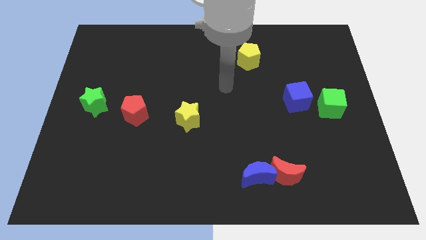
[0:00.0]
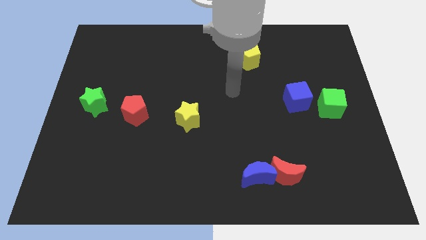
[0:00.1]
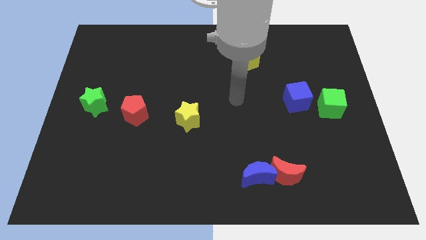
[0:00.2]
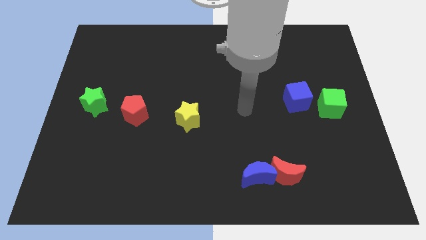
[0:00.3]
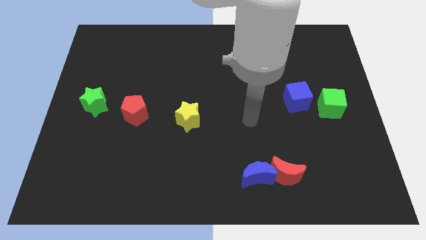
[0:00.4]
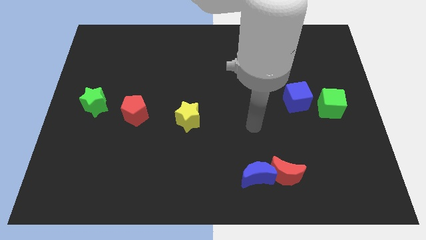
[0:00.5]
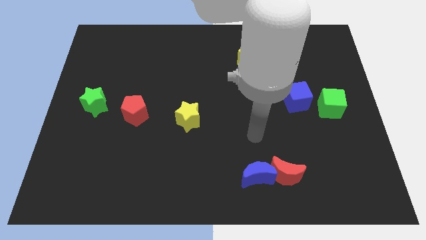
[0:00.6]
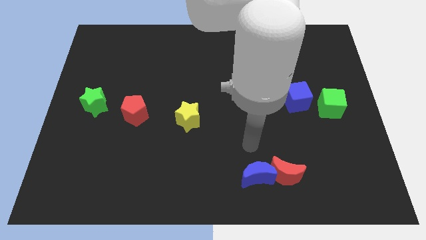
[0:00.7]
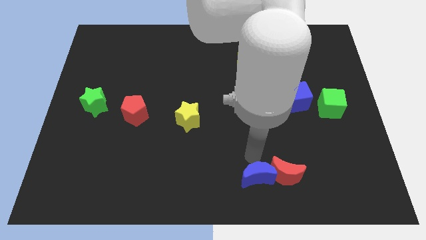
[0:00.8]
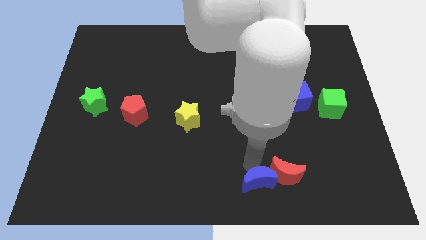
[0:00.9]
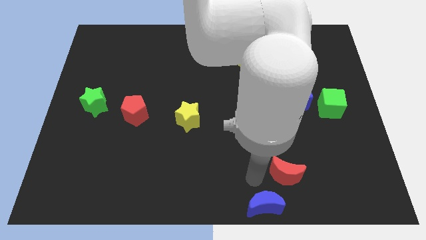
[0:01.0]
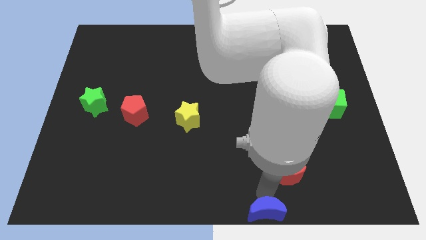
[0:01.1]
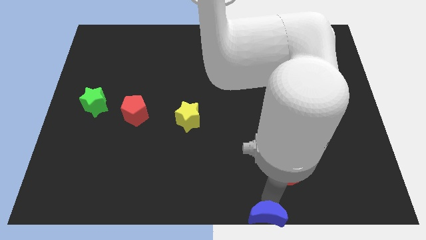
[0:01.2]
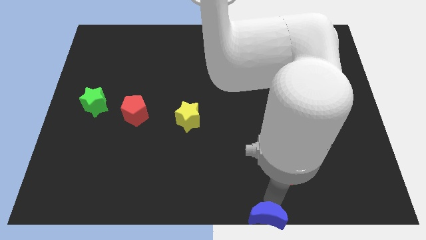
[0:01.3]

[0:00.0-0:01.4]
pull the red moon apart from the blue moon

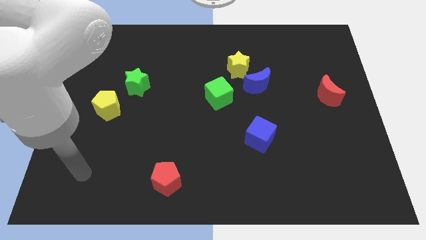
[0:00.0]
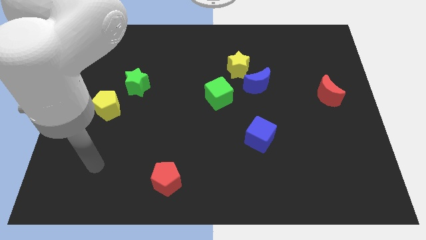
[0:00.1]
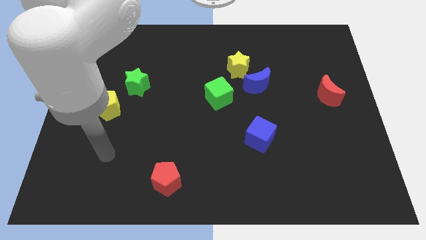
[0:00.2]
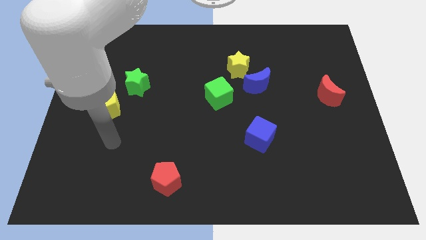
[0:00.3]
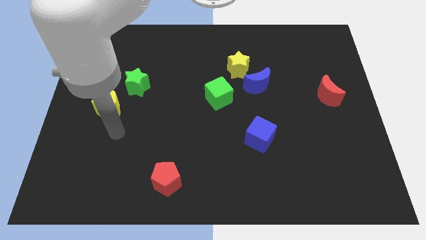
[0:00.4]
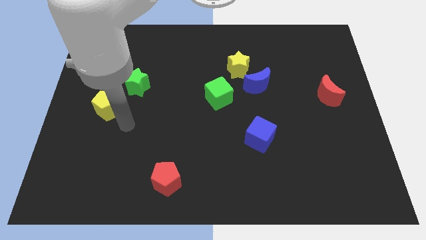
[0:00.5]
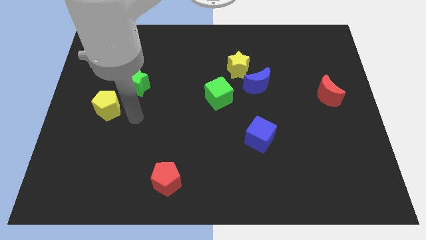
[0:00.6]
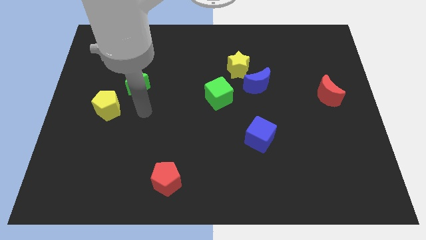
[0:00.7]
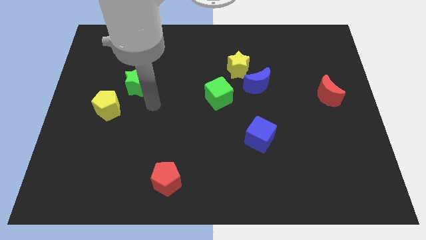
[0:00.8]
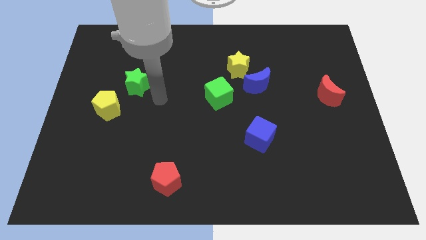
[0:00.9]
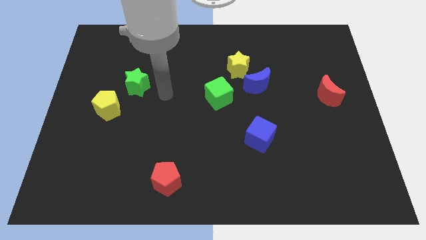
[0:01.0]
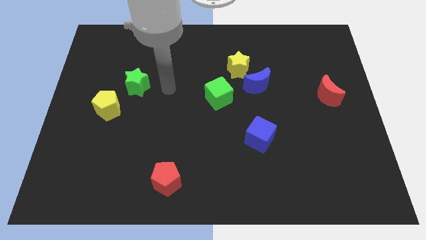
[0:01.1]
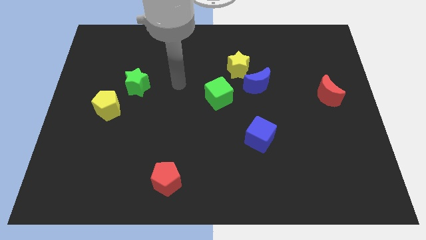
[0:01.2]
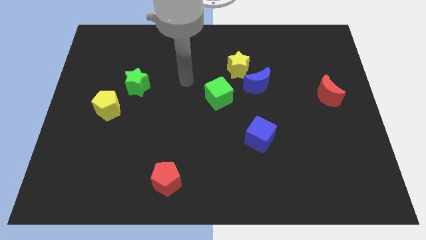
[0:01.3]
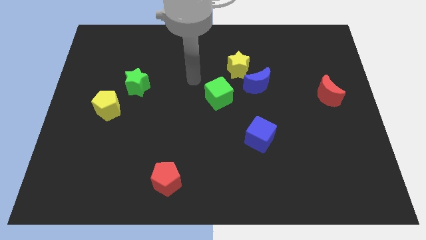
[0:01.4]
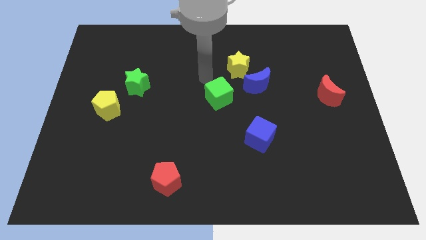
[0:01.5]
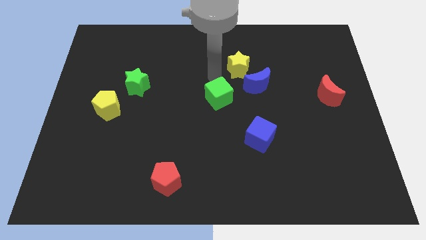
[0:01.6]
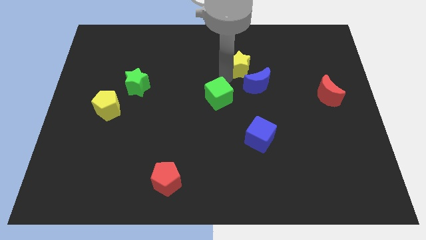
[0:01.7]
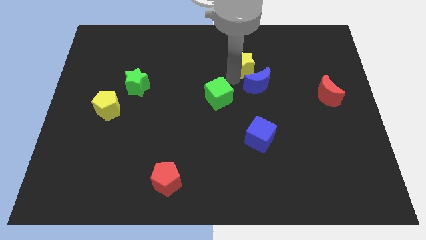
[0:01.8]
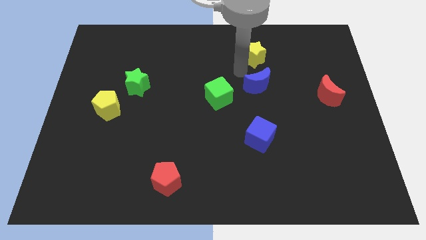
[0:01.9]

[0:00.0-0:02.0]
move the blue moon away from the yellow star

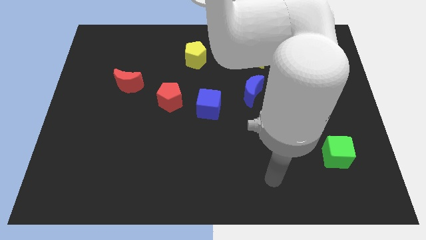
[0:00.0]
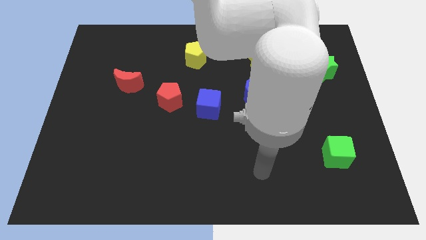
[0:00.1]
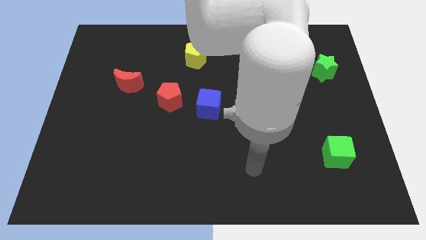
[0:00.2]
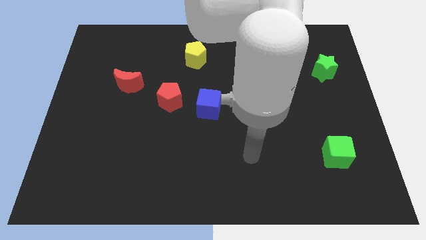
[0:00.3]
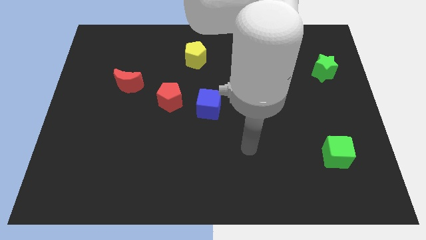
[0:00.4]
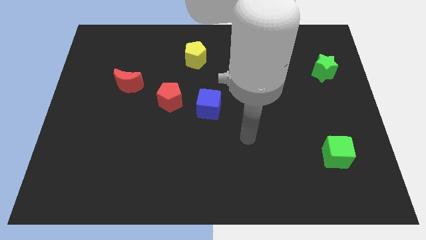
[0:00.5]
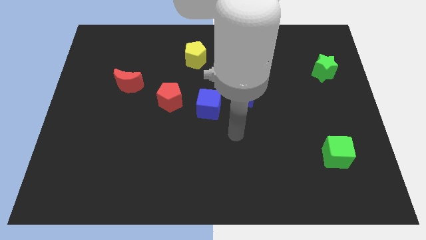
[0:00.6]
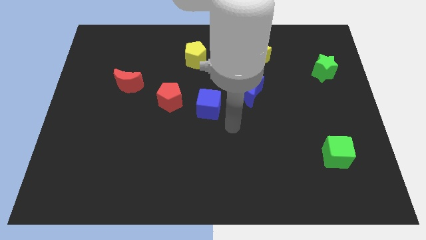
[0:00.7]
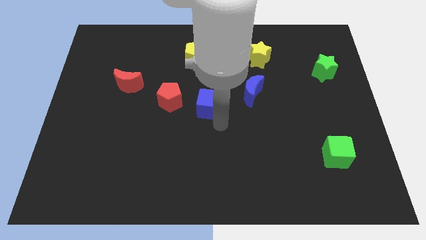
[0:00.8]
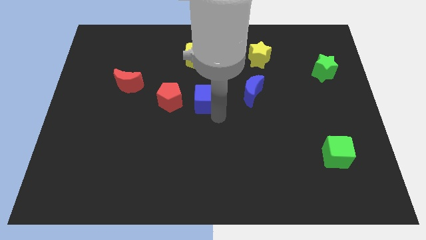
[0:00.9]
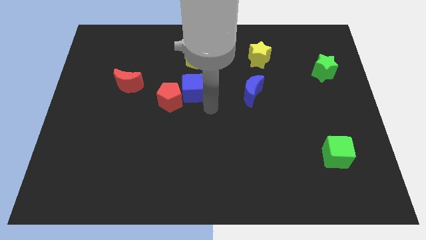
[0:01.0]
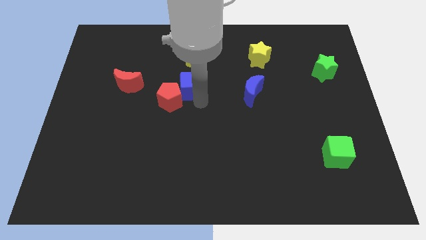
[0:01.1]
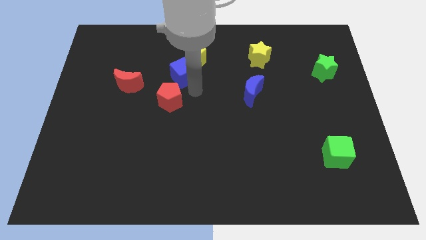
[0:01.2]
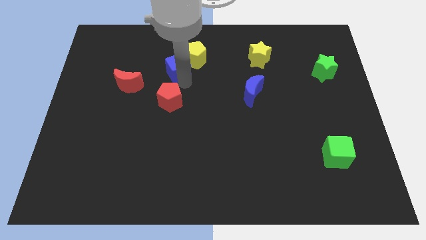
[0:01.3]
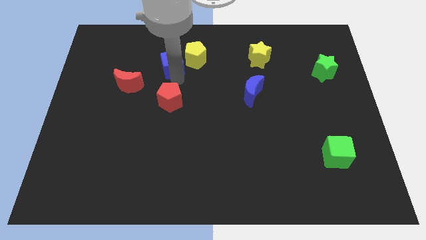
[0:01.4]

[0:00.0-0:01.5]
pull the red pentagon apart from the blue cube

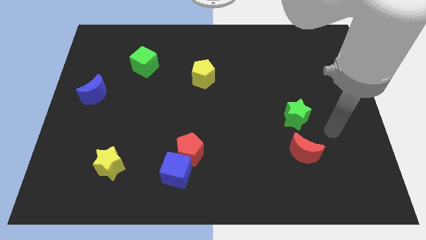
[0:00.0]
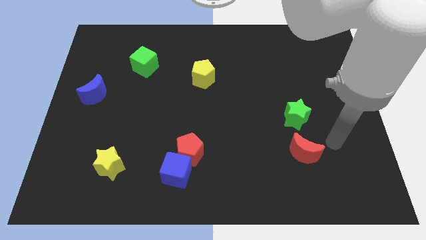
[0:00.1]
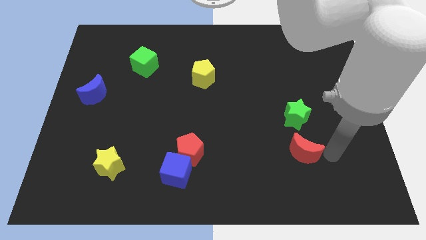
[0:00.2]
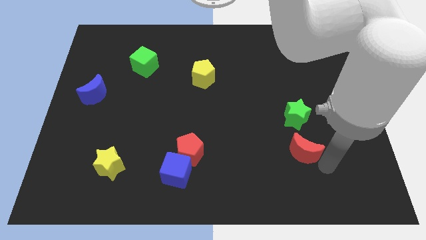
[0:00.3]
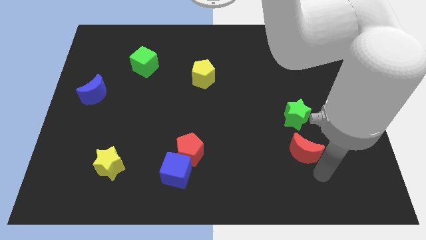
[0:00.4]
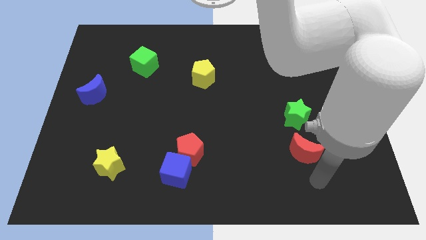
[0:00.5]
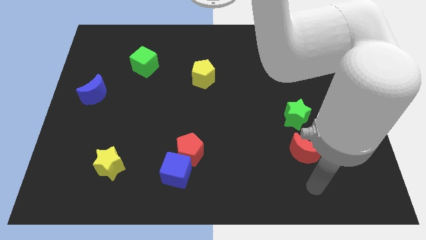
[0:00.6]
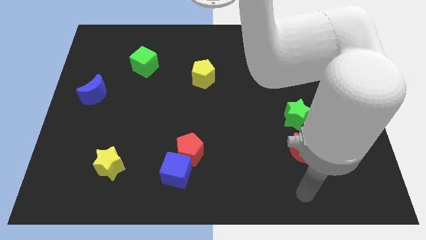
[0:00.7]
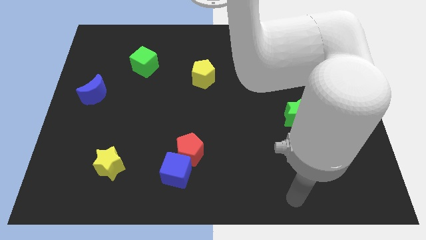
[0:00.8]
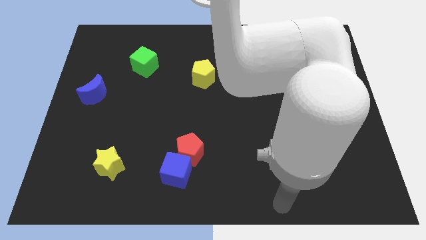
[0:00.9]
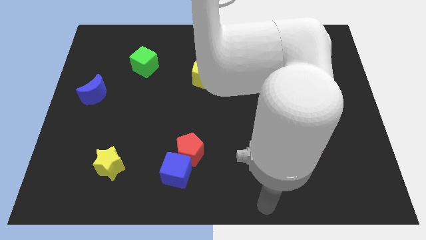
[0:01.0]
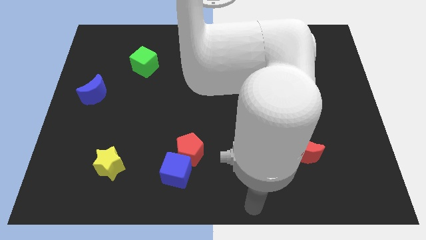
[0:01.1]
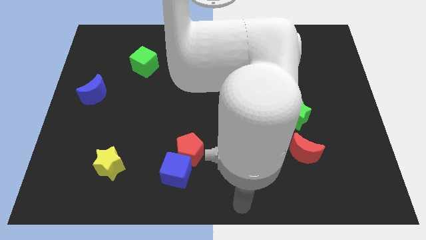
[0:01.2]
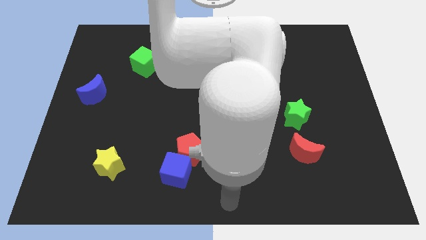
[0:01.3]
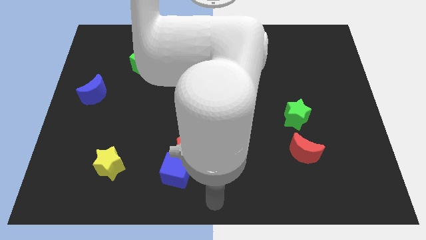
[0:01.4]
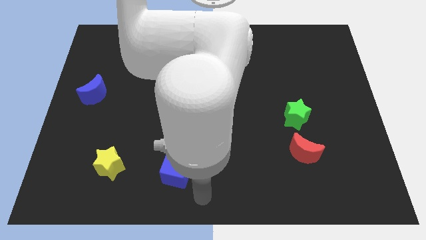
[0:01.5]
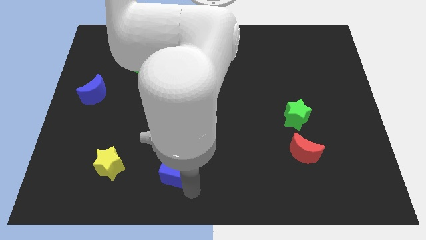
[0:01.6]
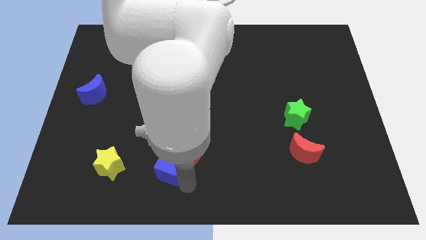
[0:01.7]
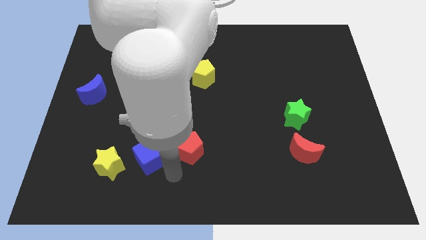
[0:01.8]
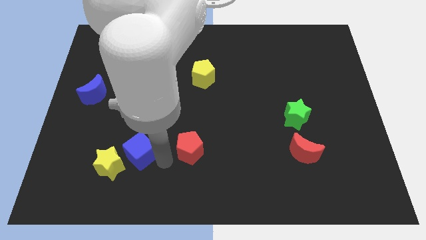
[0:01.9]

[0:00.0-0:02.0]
separate the red pentagon from the blue cube

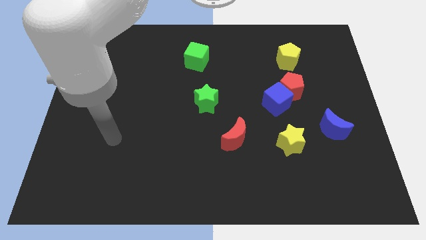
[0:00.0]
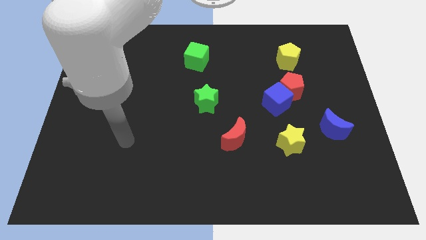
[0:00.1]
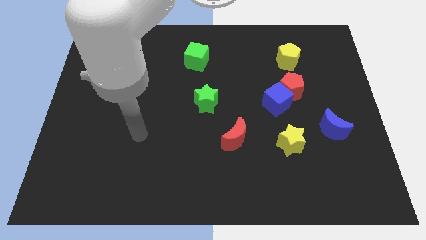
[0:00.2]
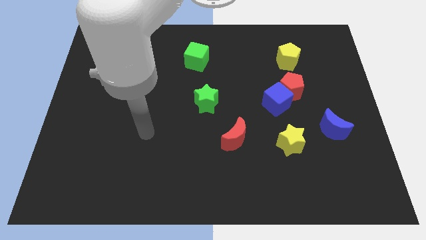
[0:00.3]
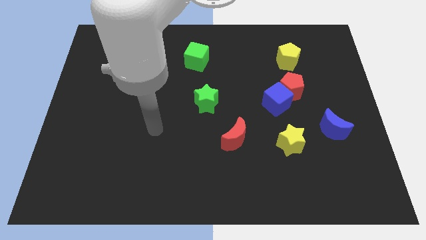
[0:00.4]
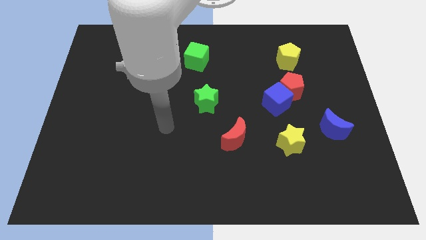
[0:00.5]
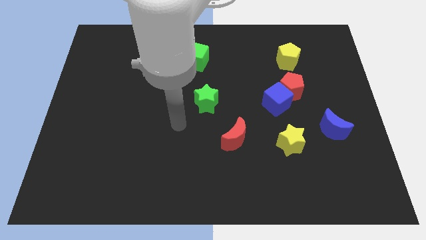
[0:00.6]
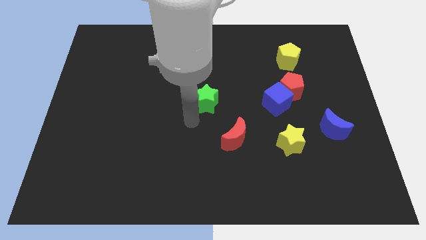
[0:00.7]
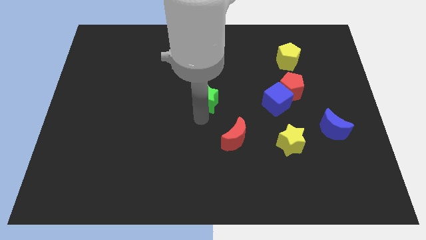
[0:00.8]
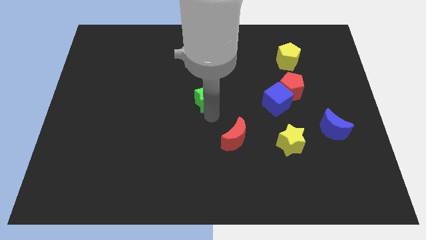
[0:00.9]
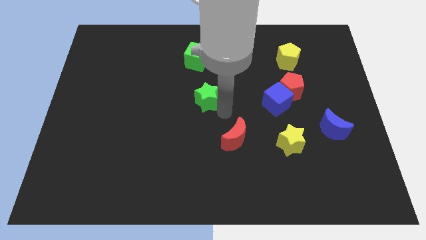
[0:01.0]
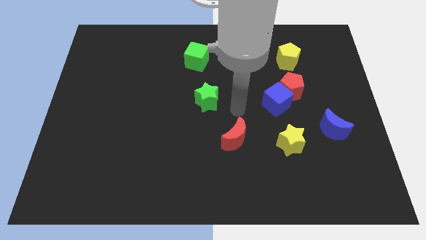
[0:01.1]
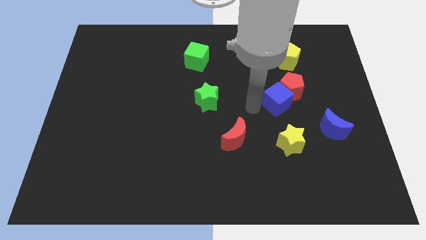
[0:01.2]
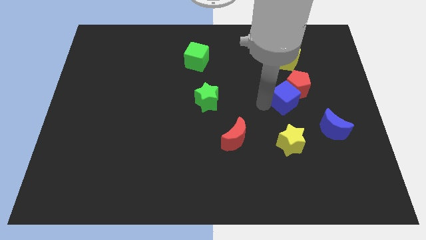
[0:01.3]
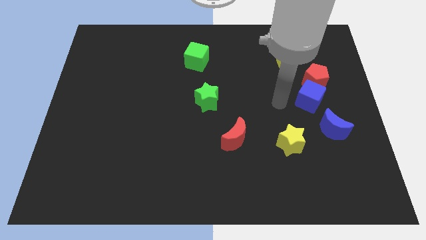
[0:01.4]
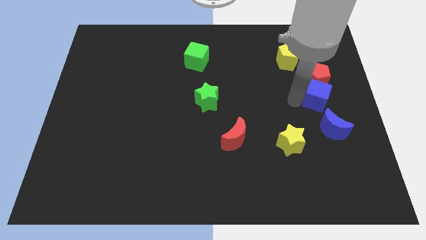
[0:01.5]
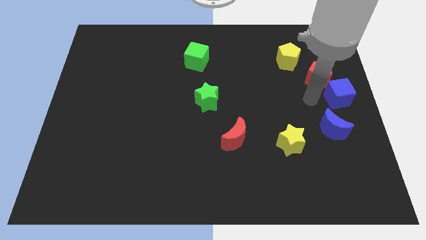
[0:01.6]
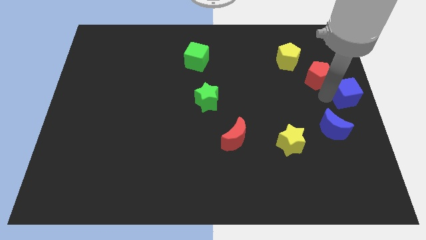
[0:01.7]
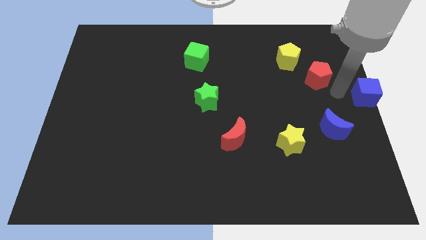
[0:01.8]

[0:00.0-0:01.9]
move the red pentagon away from the blue cube

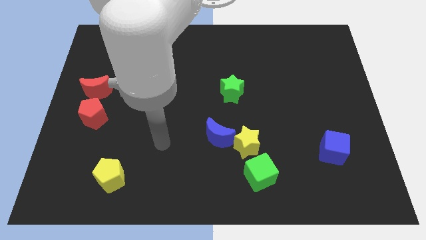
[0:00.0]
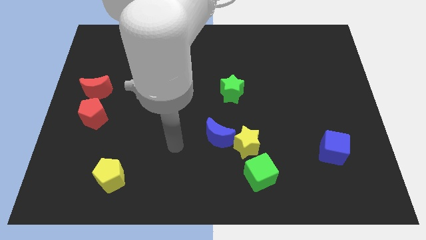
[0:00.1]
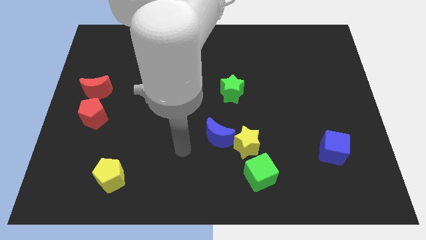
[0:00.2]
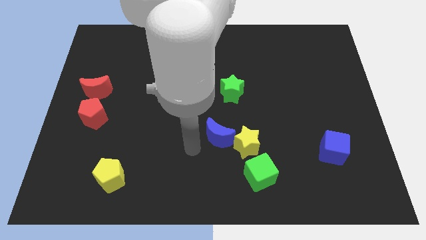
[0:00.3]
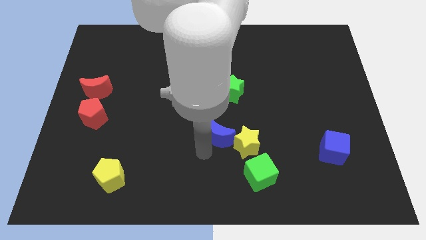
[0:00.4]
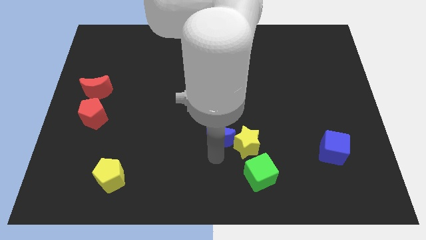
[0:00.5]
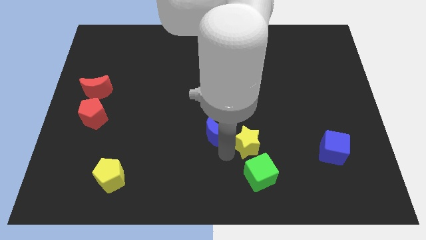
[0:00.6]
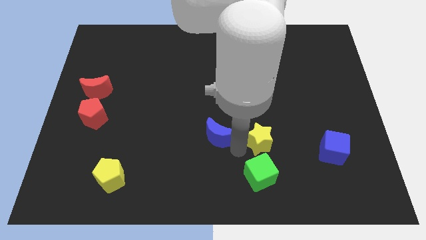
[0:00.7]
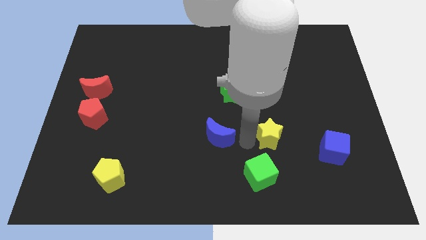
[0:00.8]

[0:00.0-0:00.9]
pull the blue moon apart from the yellow star
